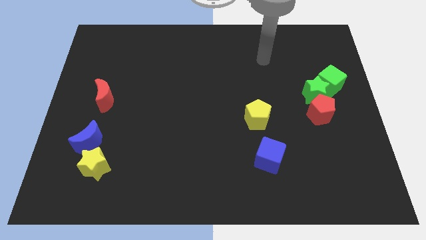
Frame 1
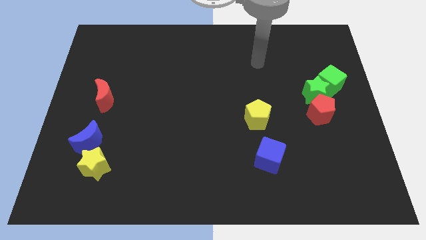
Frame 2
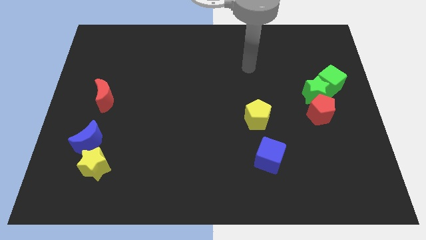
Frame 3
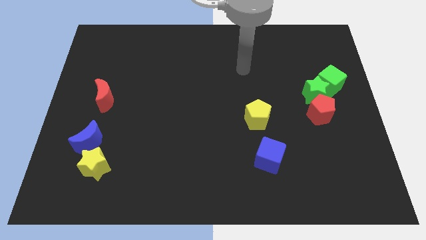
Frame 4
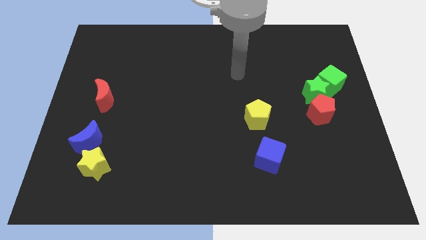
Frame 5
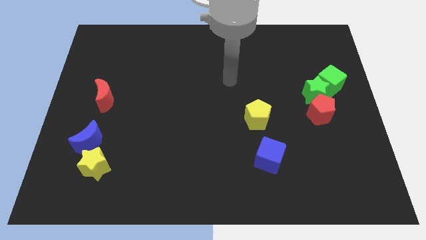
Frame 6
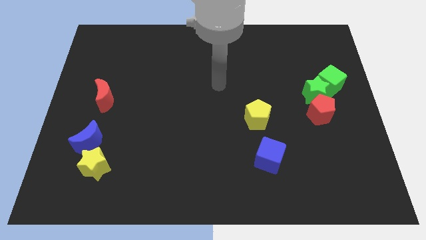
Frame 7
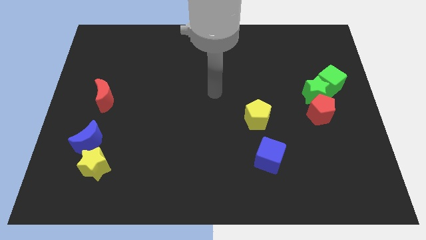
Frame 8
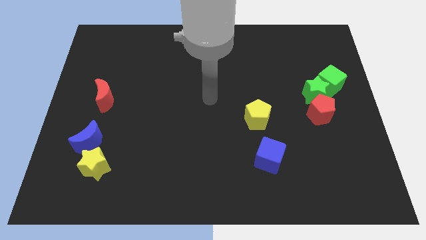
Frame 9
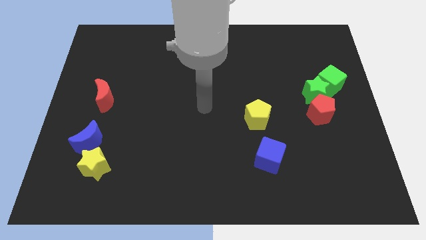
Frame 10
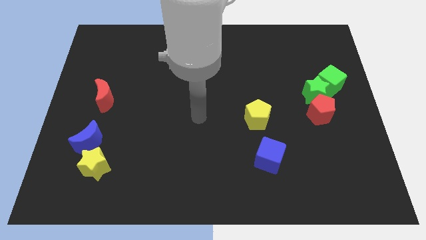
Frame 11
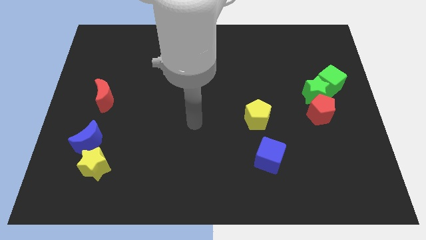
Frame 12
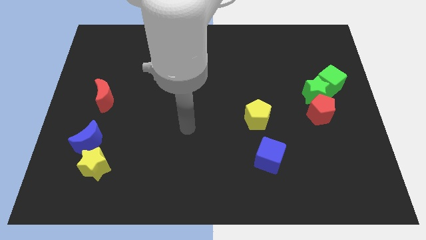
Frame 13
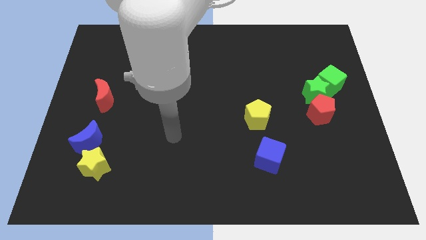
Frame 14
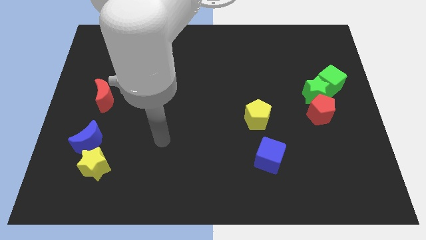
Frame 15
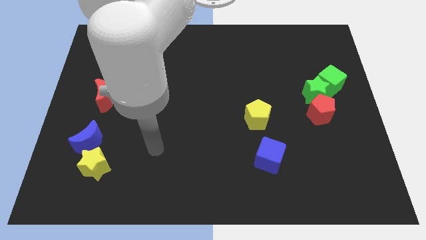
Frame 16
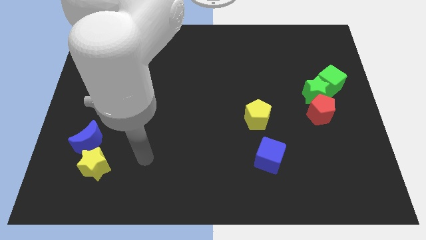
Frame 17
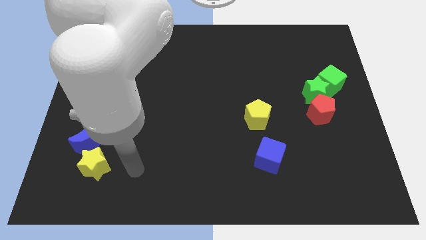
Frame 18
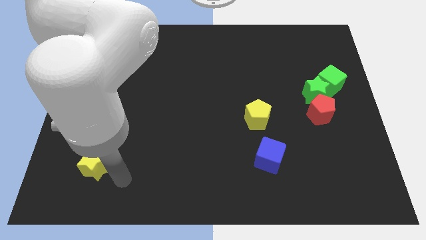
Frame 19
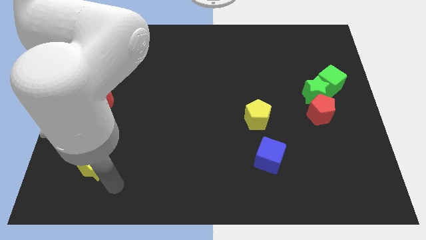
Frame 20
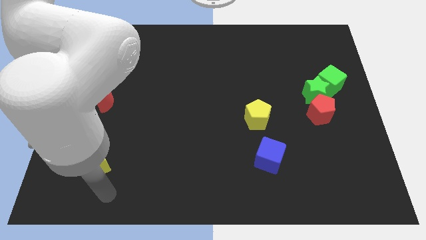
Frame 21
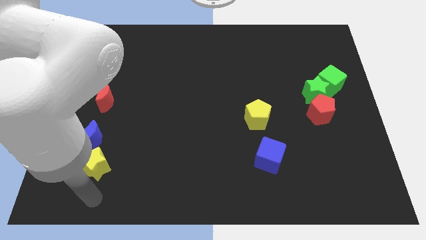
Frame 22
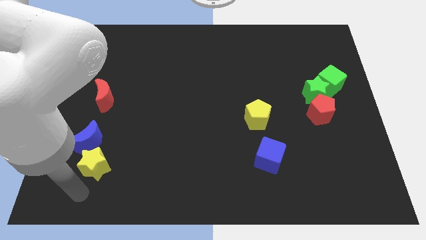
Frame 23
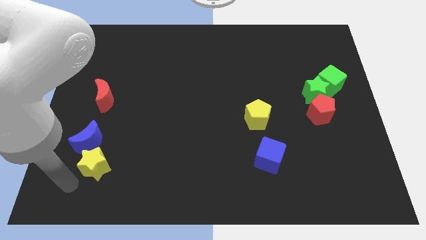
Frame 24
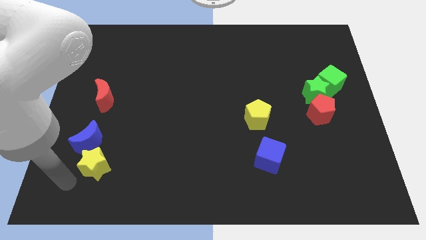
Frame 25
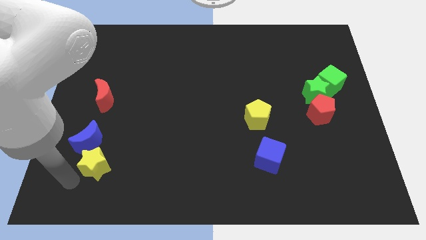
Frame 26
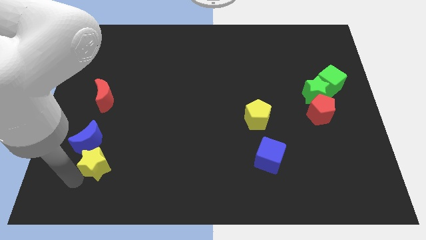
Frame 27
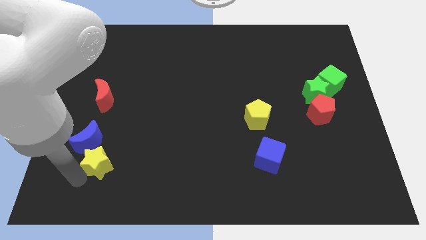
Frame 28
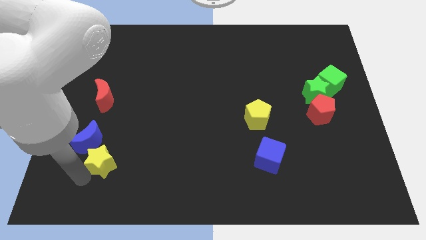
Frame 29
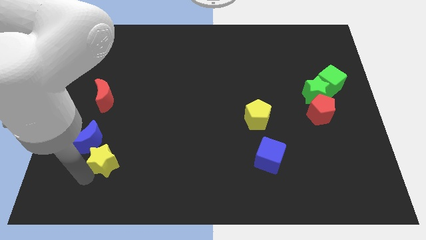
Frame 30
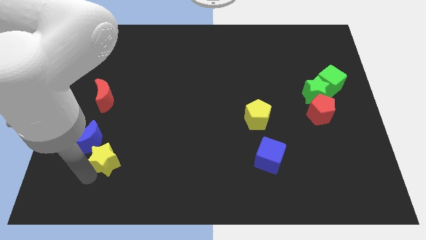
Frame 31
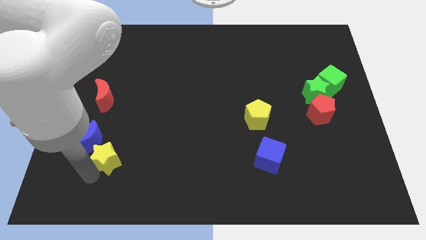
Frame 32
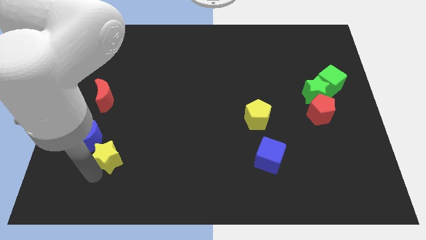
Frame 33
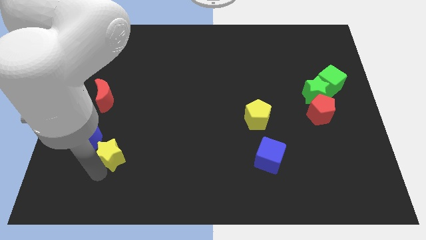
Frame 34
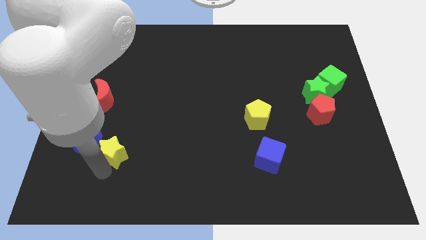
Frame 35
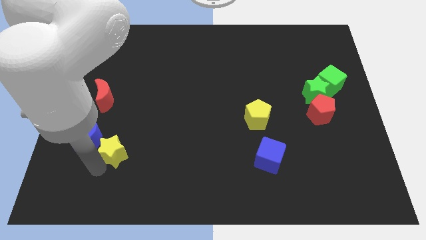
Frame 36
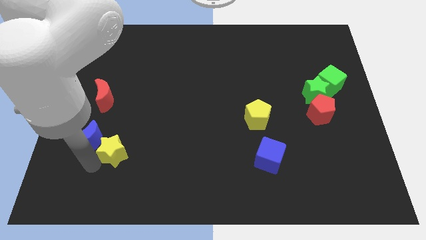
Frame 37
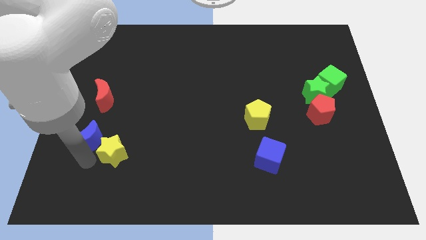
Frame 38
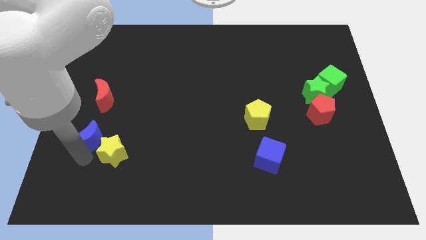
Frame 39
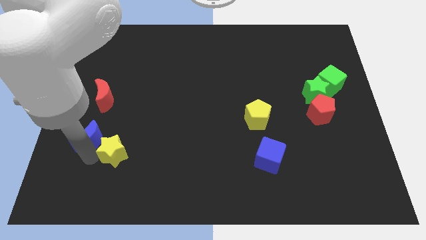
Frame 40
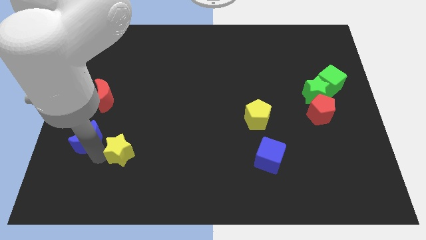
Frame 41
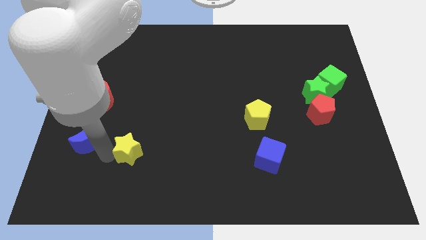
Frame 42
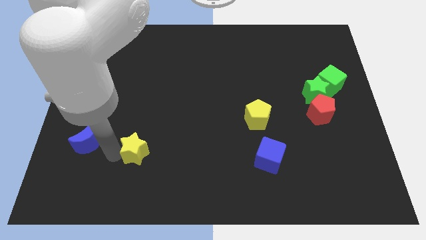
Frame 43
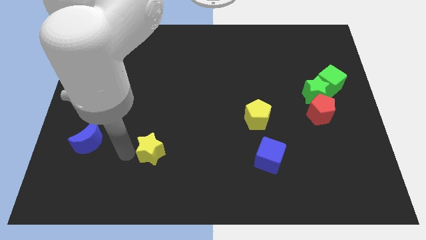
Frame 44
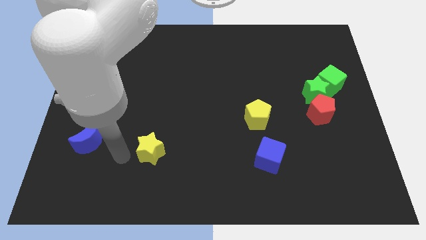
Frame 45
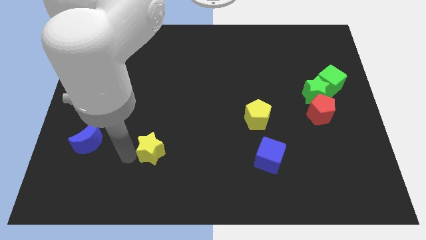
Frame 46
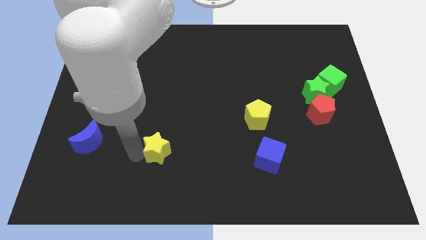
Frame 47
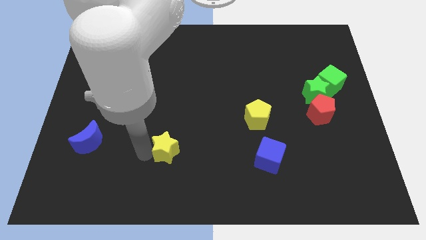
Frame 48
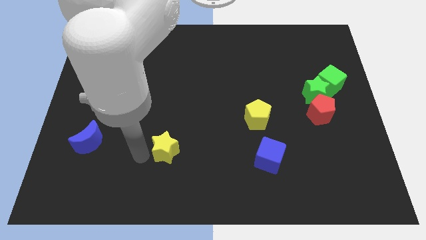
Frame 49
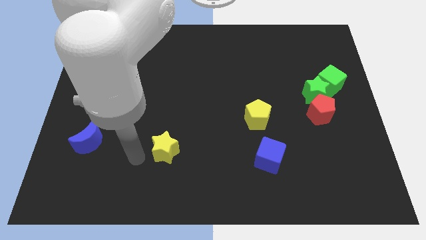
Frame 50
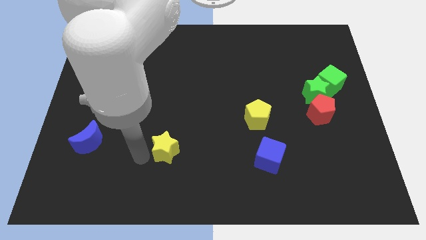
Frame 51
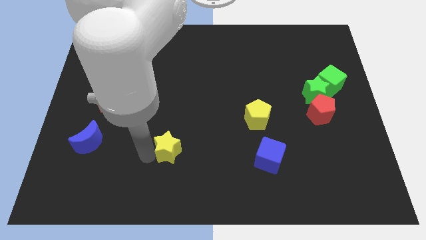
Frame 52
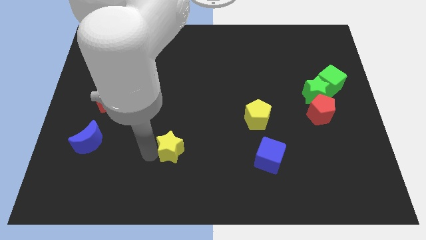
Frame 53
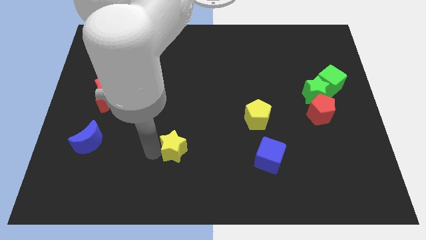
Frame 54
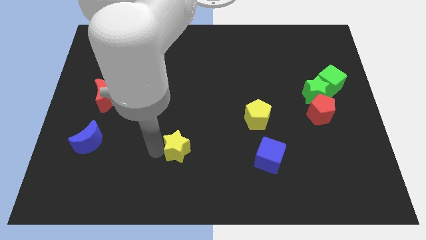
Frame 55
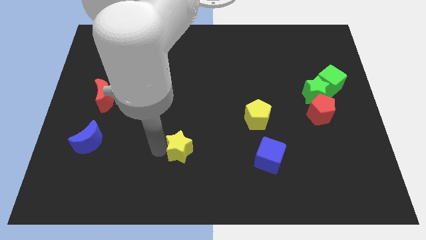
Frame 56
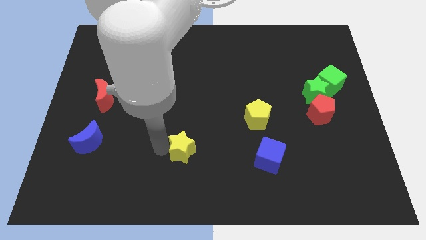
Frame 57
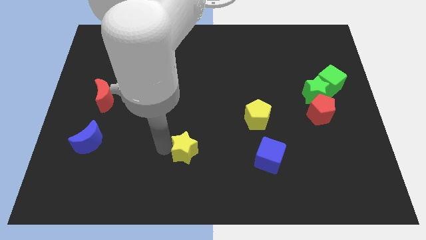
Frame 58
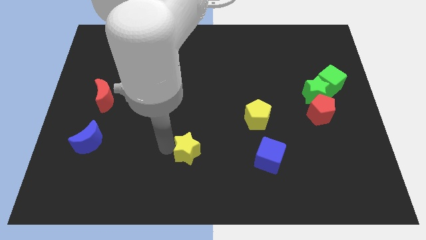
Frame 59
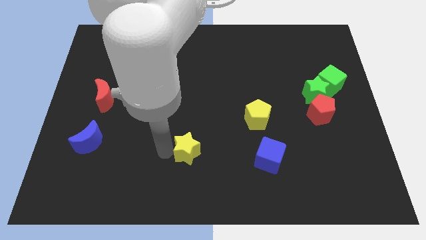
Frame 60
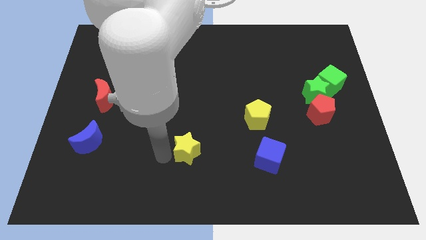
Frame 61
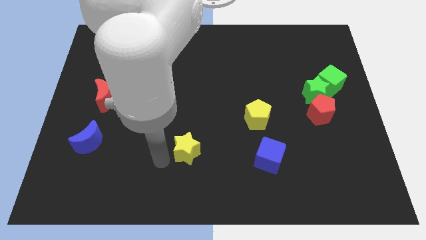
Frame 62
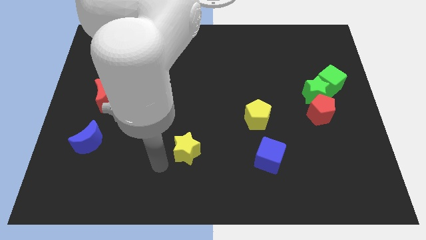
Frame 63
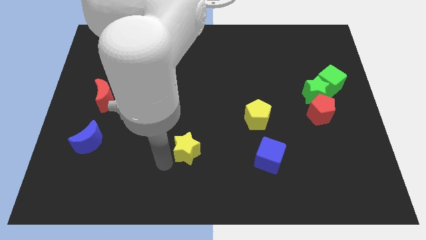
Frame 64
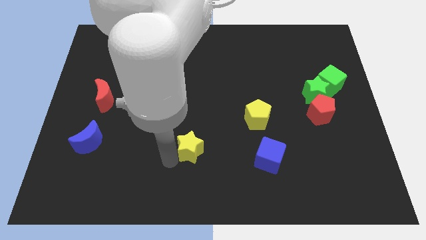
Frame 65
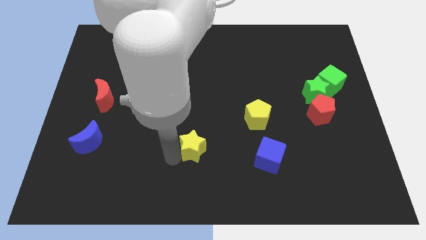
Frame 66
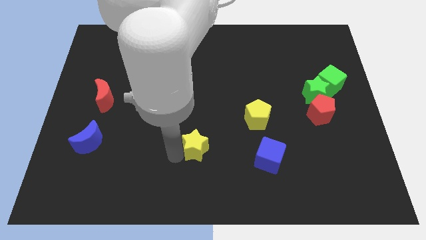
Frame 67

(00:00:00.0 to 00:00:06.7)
move the yellow star right

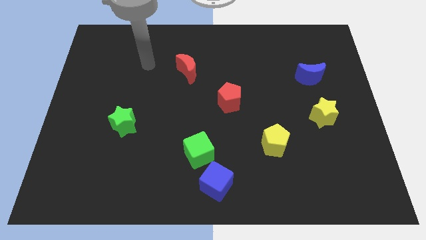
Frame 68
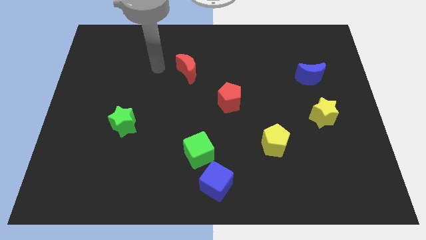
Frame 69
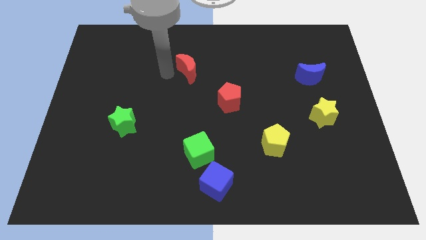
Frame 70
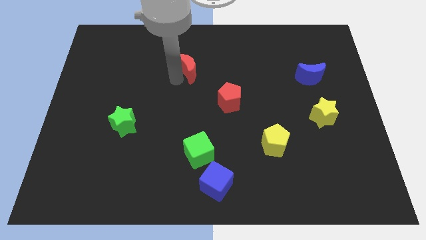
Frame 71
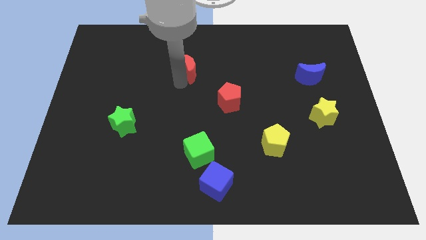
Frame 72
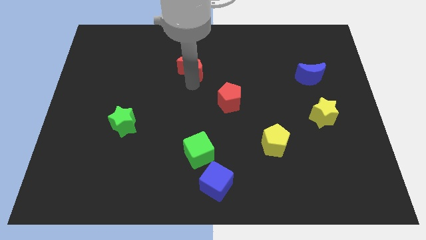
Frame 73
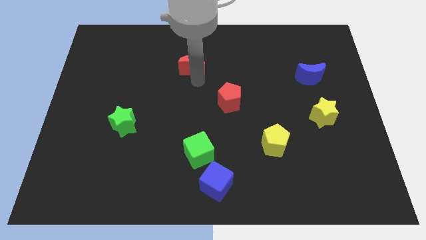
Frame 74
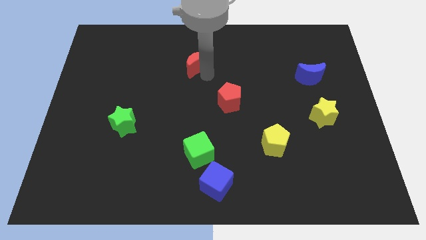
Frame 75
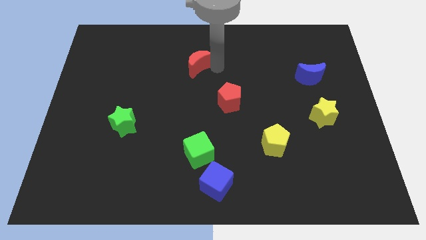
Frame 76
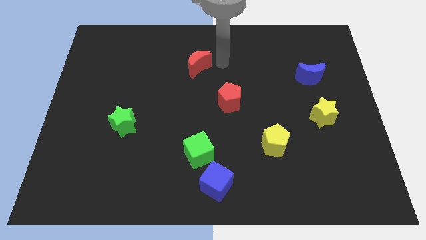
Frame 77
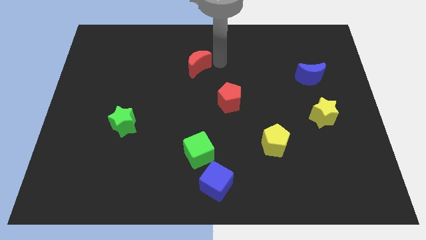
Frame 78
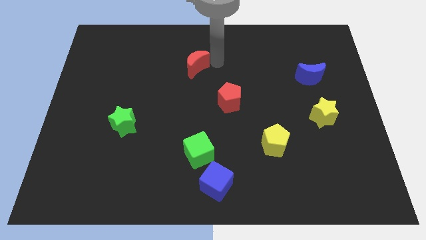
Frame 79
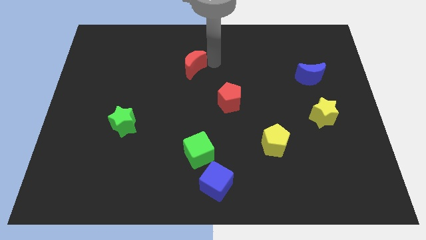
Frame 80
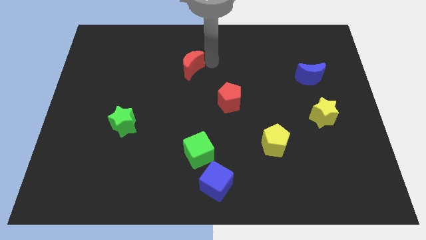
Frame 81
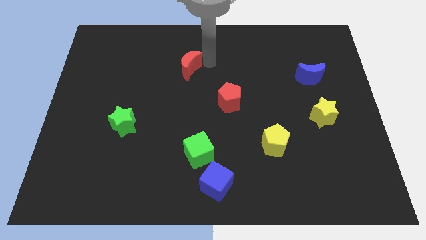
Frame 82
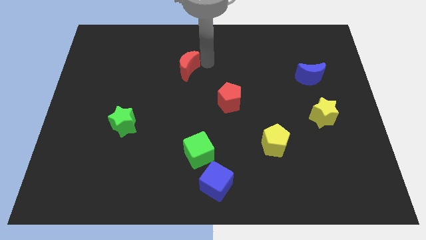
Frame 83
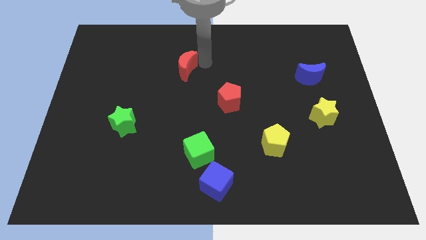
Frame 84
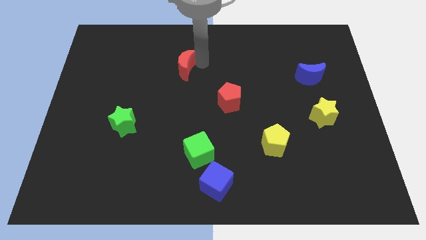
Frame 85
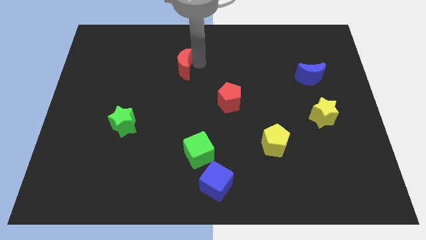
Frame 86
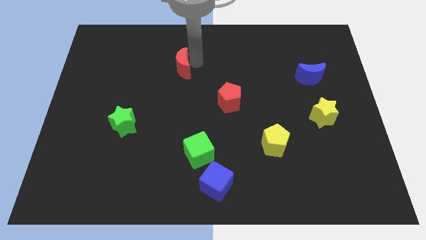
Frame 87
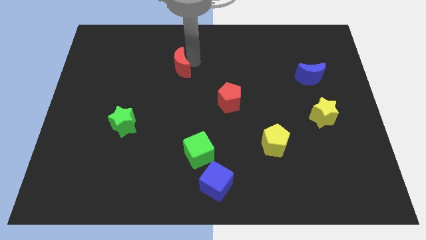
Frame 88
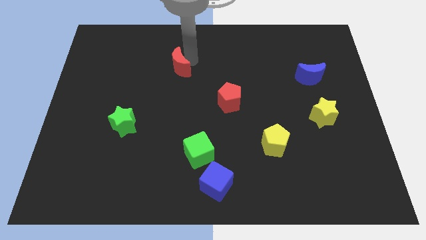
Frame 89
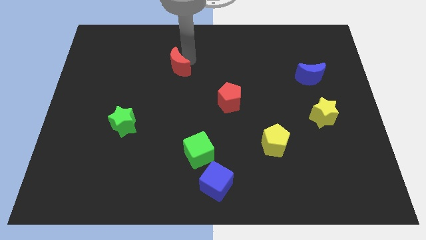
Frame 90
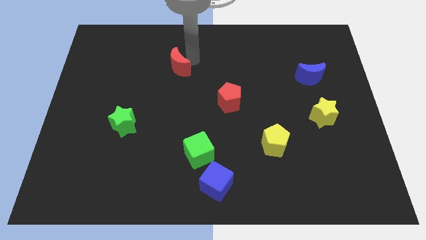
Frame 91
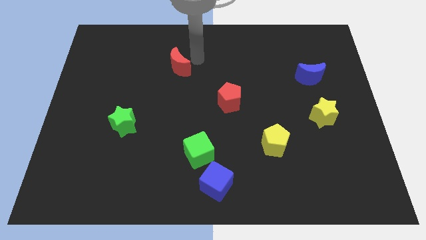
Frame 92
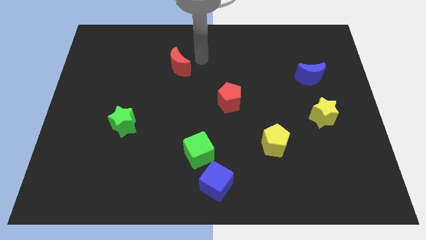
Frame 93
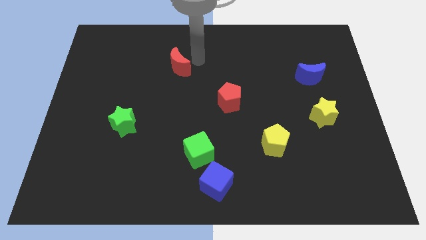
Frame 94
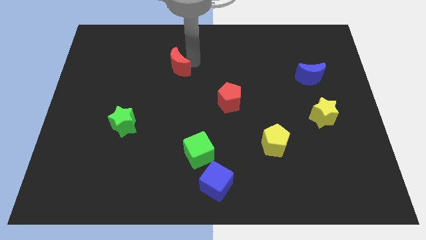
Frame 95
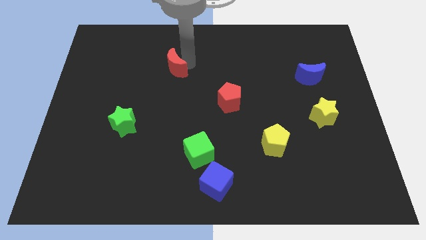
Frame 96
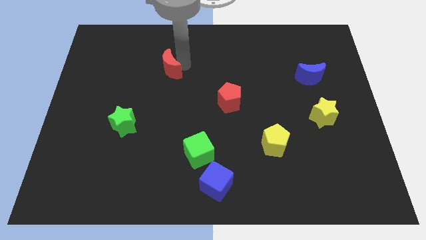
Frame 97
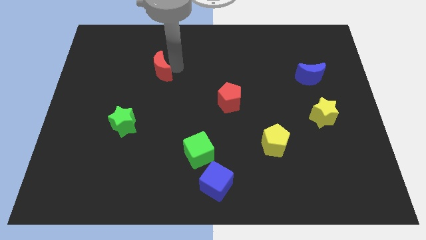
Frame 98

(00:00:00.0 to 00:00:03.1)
move the red moon to the left a little bit
